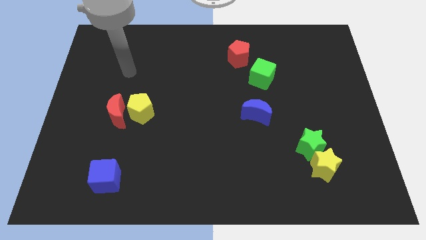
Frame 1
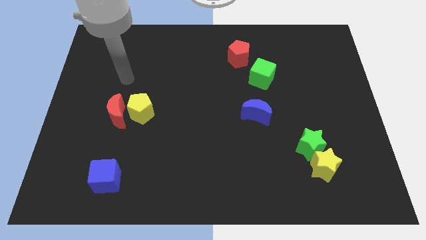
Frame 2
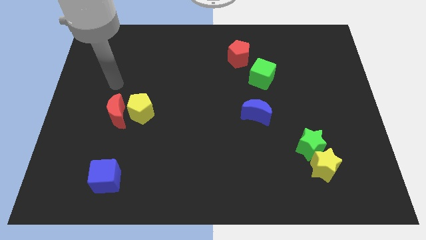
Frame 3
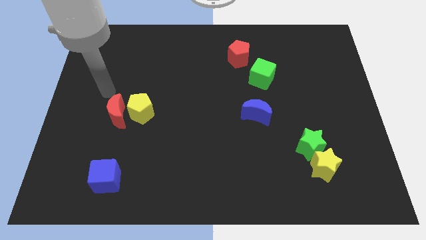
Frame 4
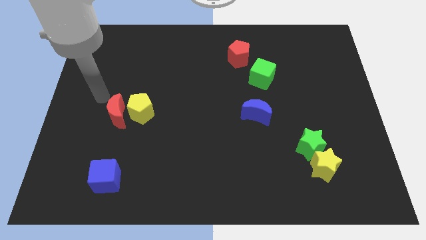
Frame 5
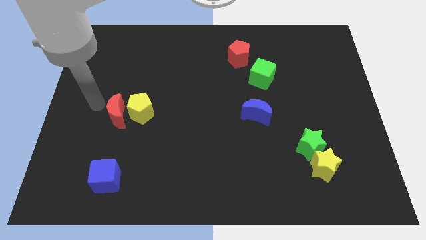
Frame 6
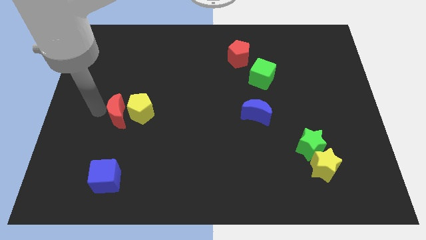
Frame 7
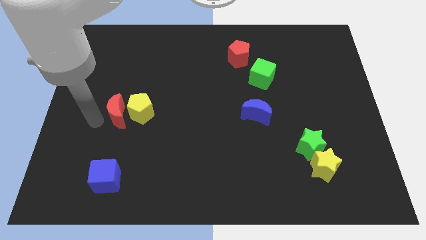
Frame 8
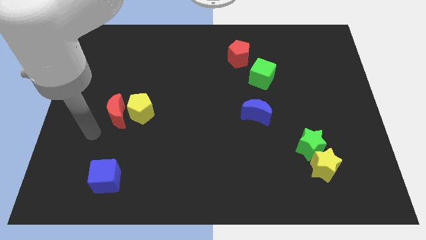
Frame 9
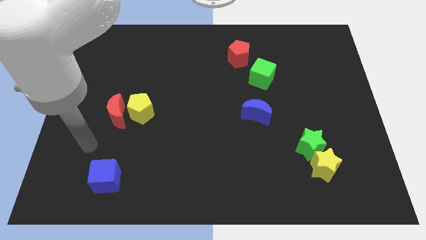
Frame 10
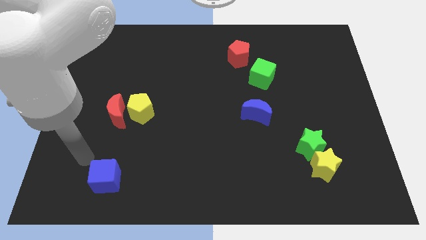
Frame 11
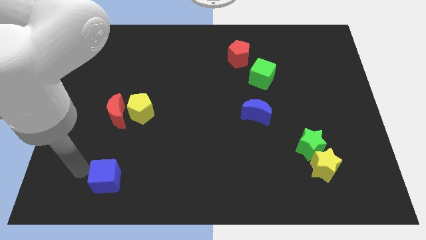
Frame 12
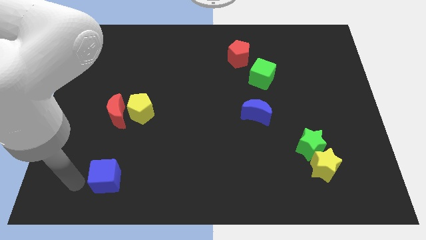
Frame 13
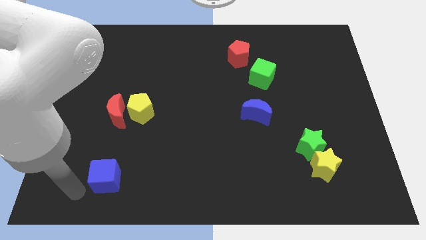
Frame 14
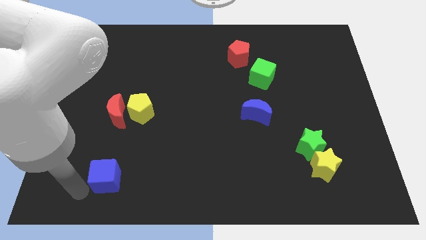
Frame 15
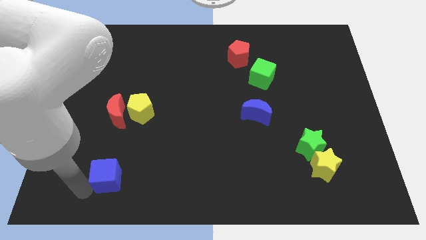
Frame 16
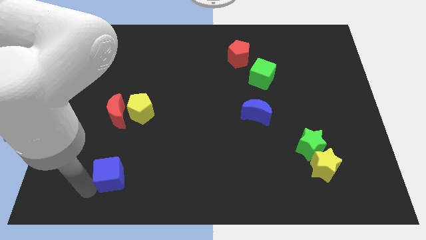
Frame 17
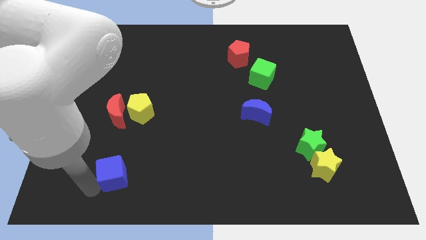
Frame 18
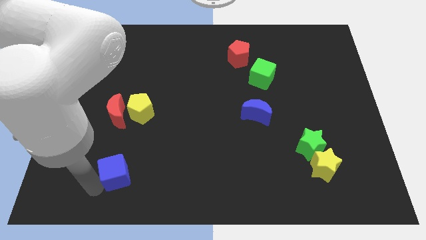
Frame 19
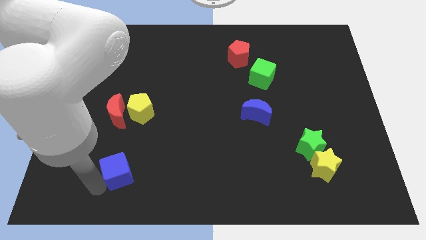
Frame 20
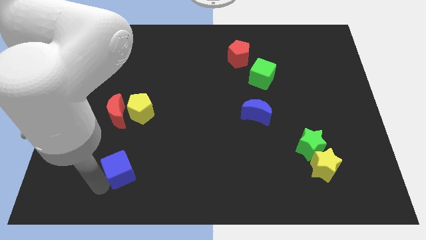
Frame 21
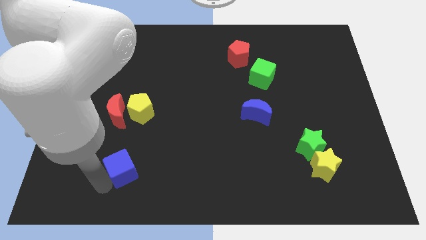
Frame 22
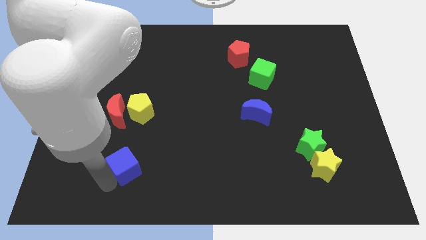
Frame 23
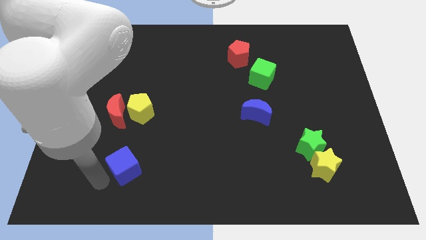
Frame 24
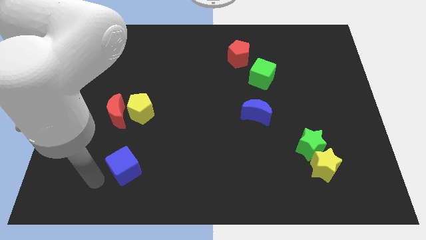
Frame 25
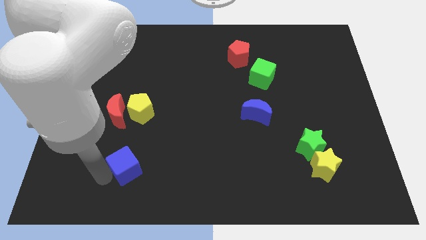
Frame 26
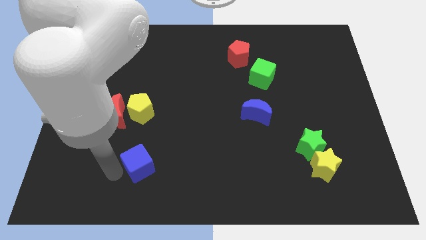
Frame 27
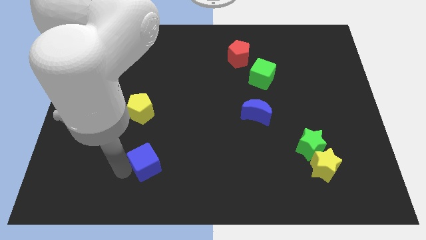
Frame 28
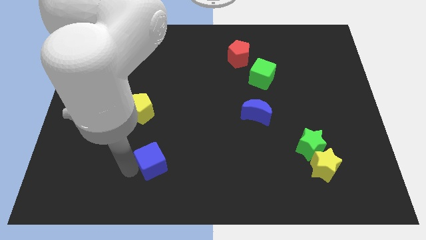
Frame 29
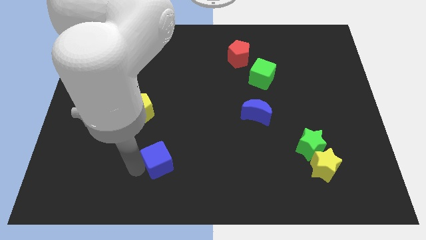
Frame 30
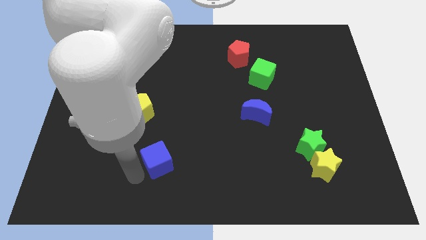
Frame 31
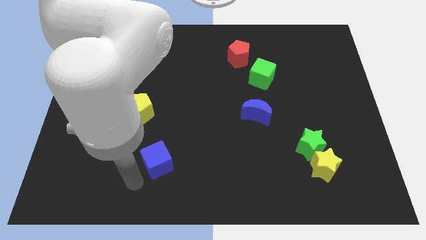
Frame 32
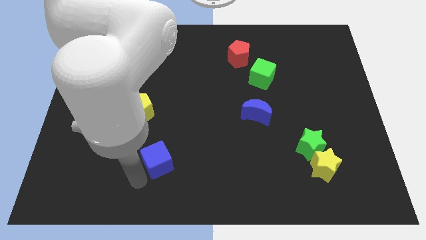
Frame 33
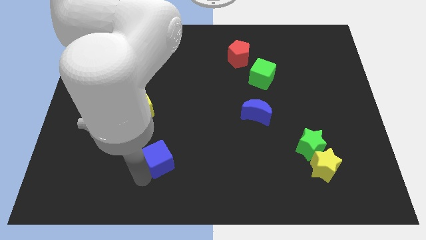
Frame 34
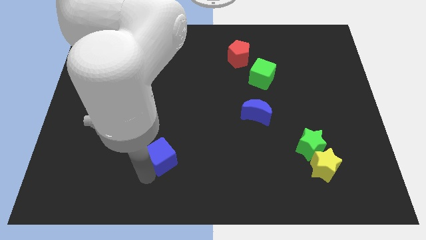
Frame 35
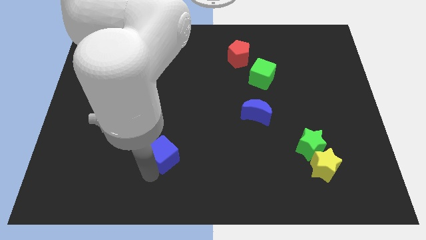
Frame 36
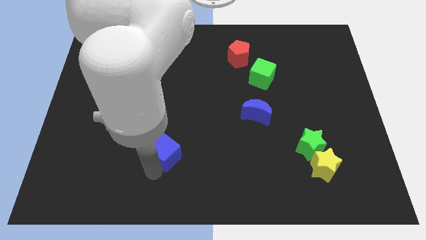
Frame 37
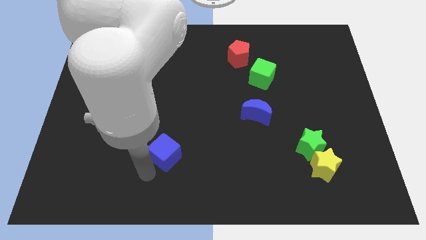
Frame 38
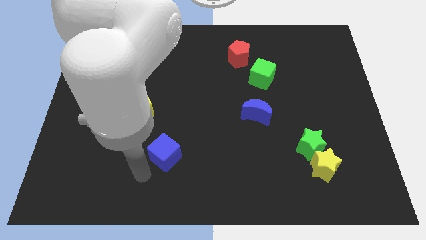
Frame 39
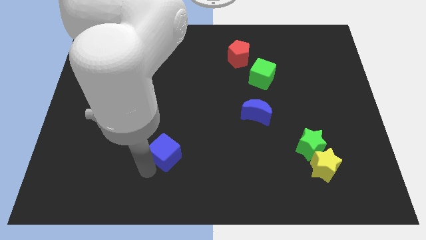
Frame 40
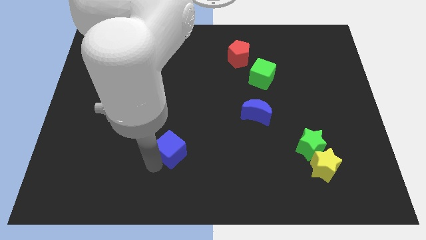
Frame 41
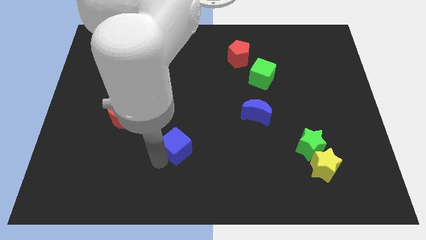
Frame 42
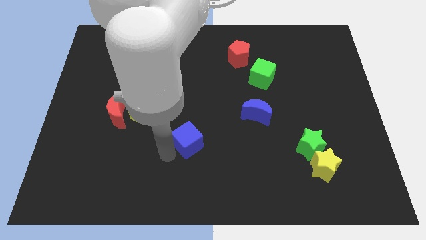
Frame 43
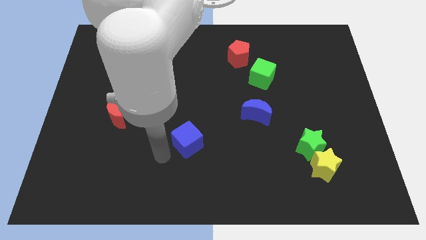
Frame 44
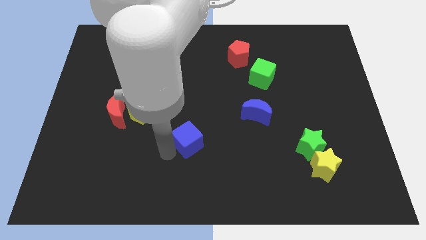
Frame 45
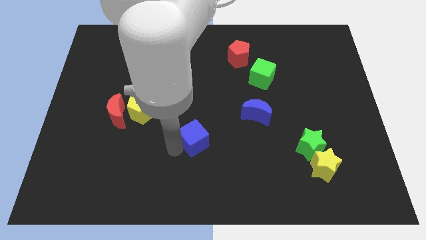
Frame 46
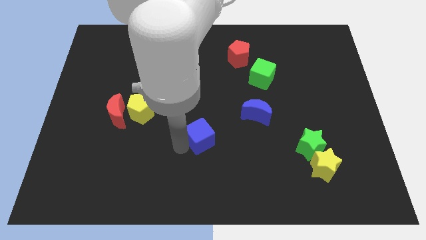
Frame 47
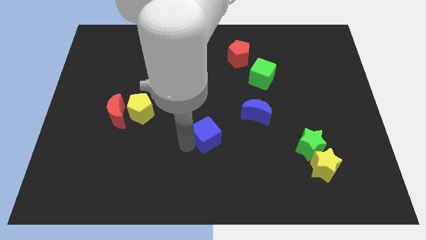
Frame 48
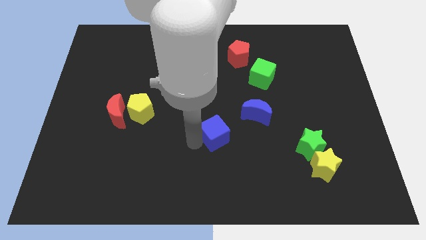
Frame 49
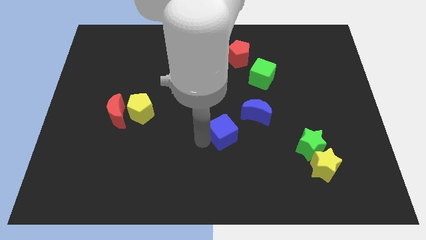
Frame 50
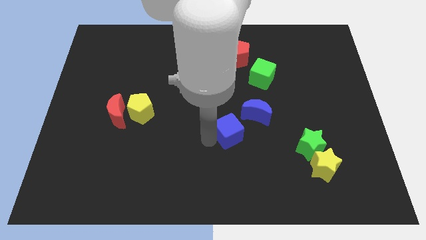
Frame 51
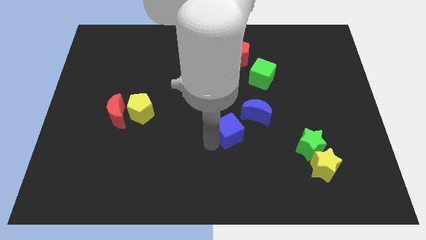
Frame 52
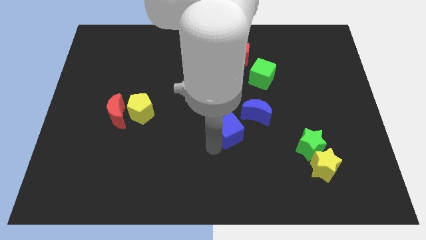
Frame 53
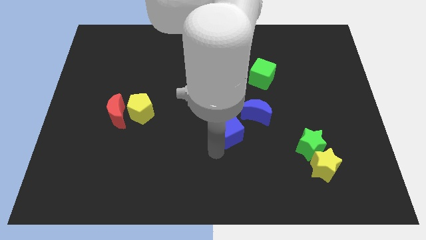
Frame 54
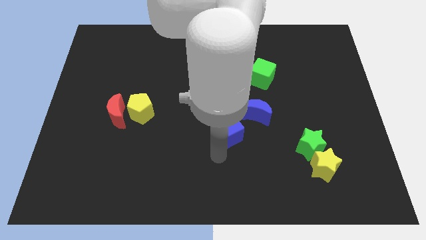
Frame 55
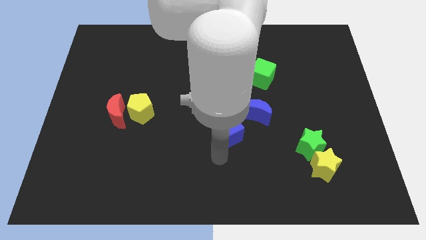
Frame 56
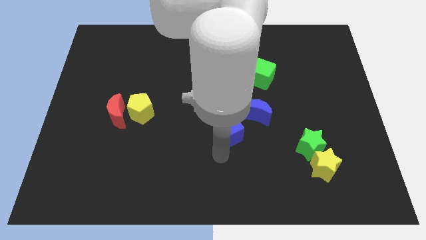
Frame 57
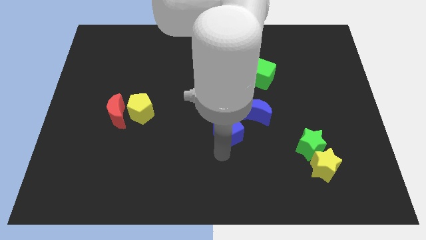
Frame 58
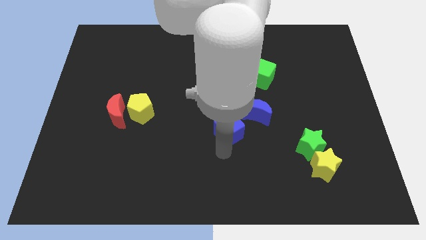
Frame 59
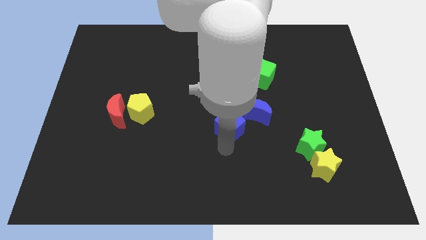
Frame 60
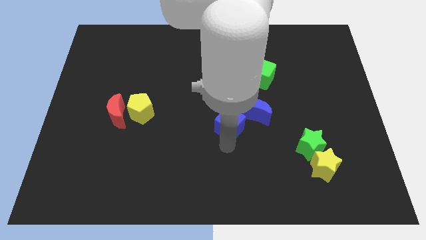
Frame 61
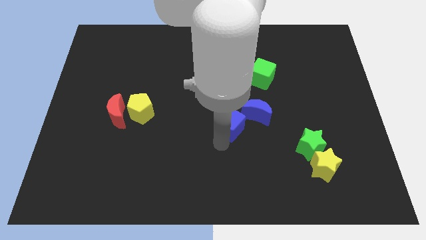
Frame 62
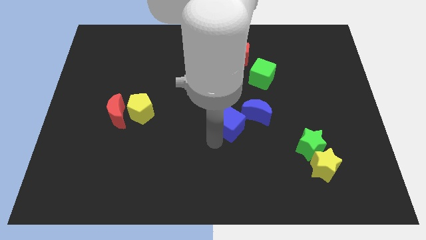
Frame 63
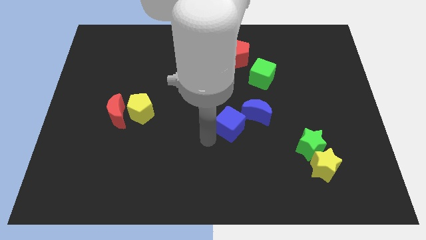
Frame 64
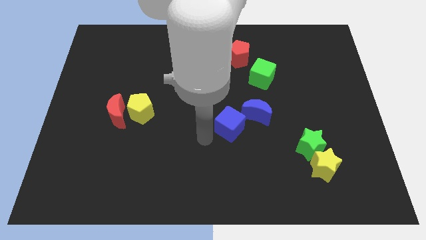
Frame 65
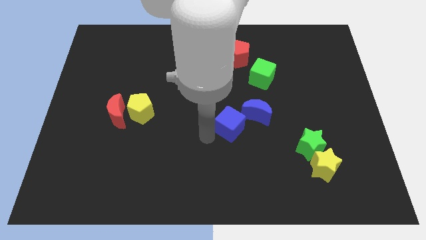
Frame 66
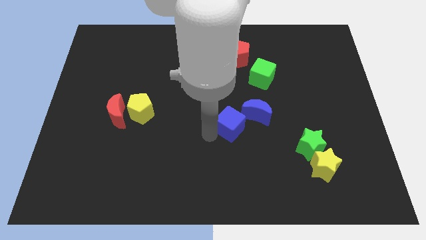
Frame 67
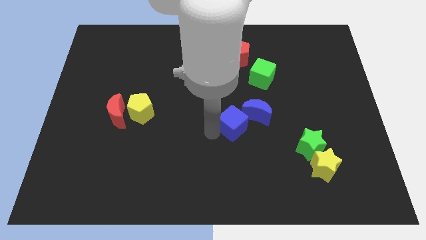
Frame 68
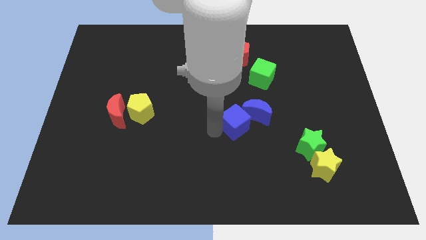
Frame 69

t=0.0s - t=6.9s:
move the blue cube towards the blue moon

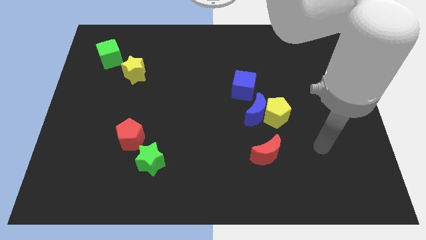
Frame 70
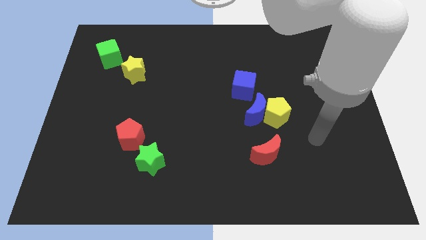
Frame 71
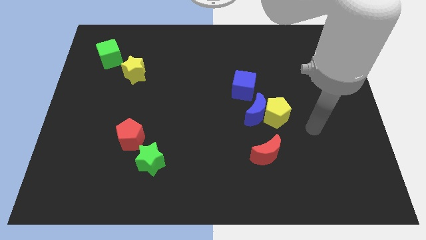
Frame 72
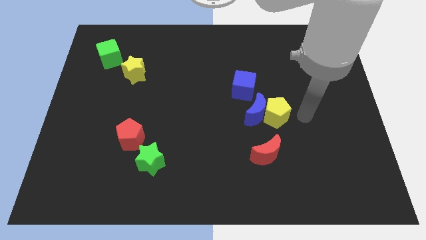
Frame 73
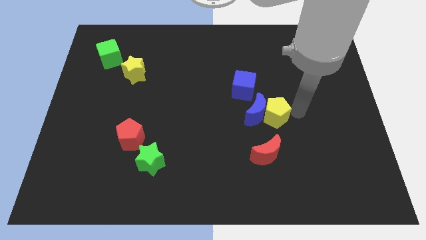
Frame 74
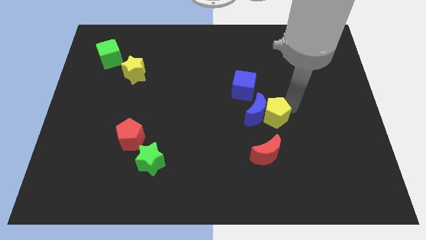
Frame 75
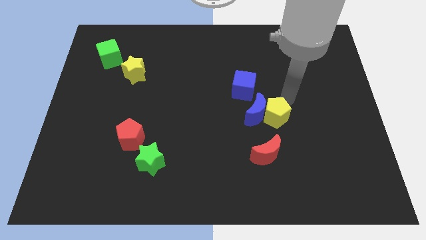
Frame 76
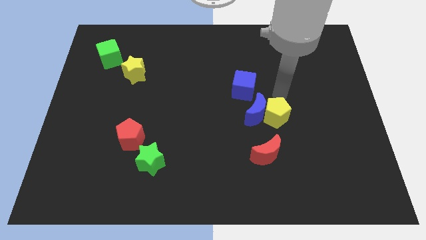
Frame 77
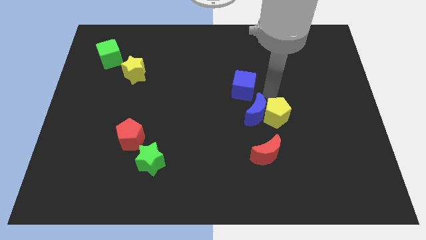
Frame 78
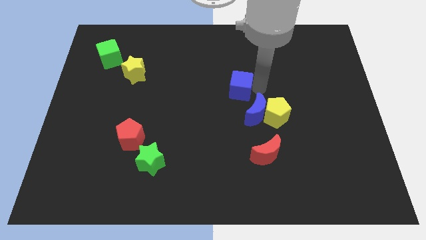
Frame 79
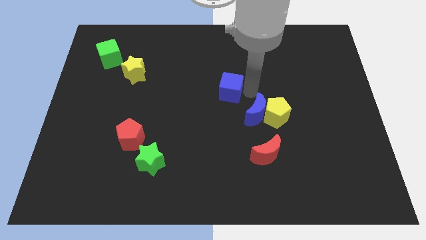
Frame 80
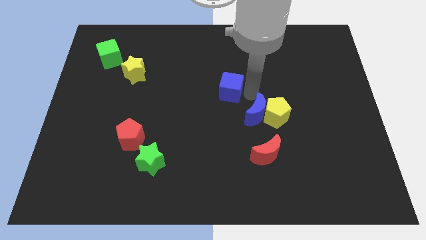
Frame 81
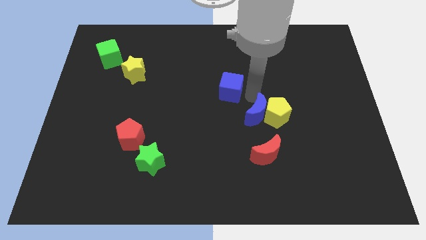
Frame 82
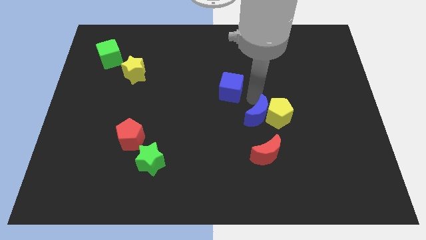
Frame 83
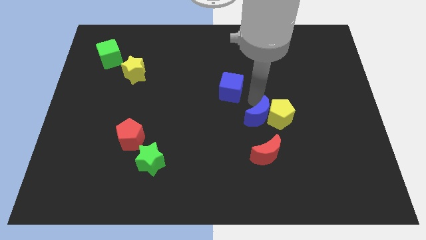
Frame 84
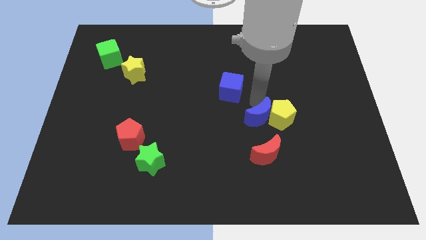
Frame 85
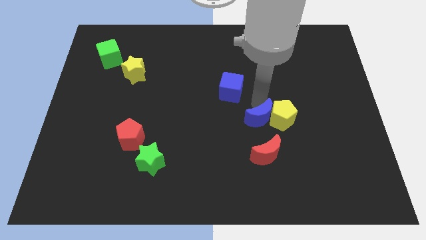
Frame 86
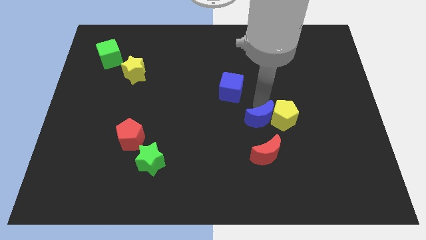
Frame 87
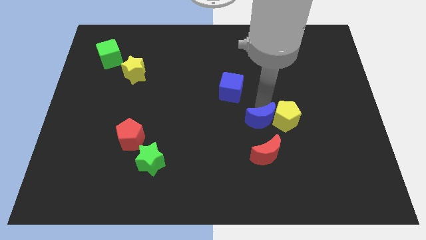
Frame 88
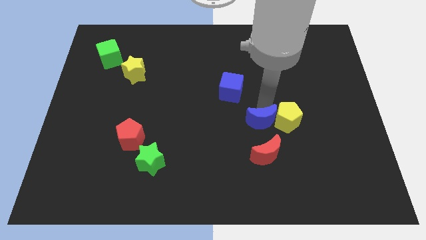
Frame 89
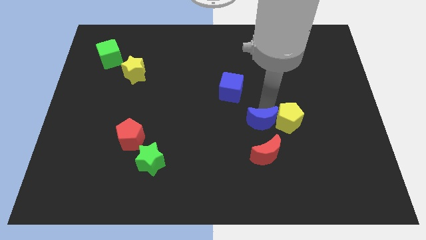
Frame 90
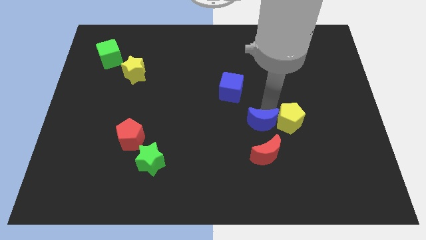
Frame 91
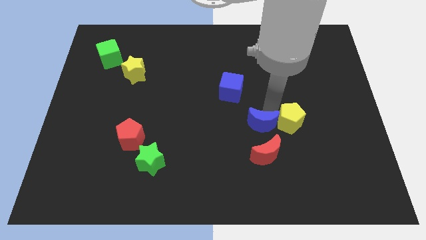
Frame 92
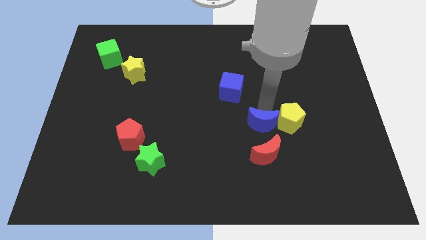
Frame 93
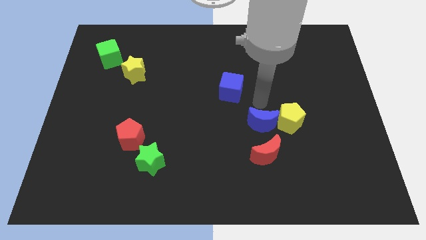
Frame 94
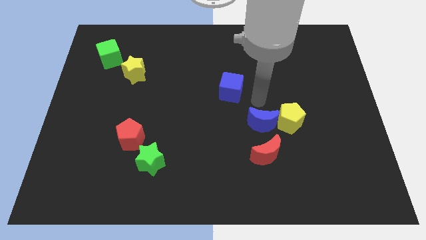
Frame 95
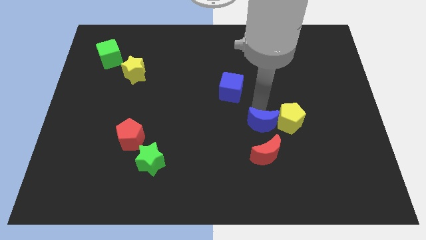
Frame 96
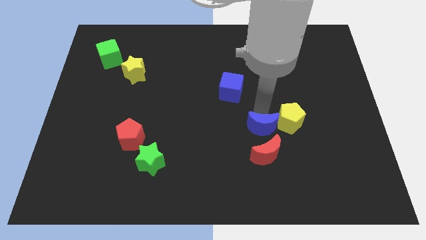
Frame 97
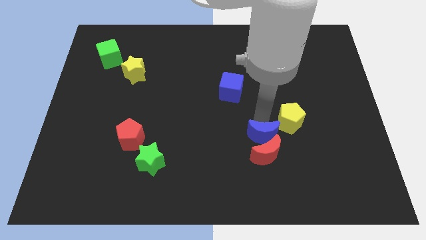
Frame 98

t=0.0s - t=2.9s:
put the blue moon towards the red moon
